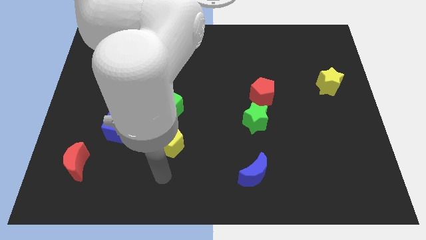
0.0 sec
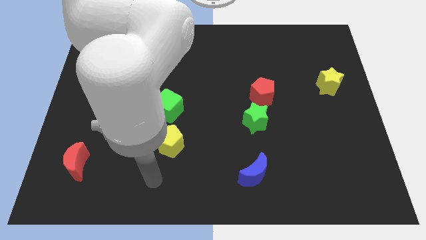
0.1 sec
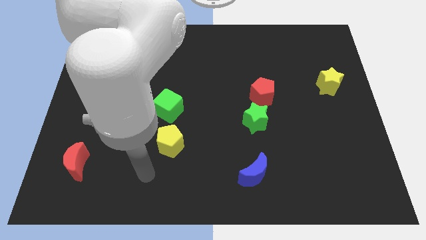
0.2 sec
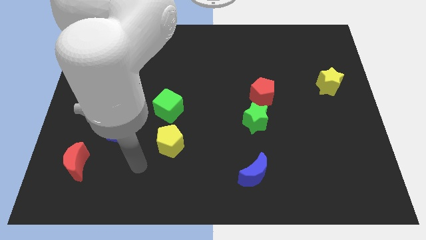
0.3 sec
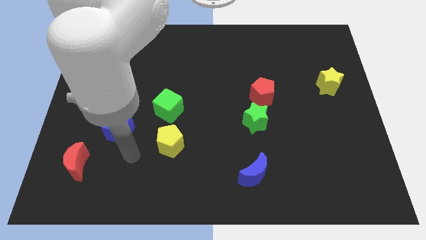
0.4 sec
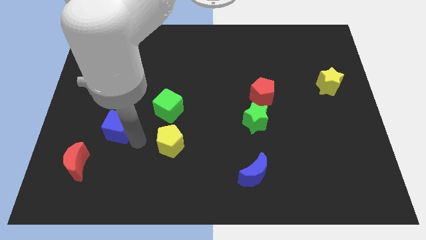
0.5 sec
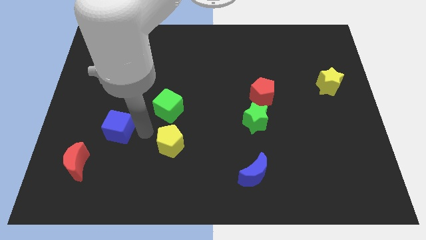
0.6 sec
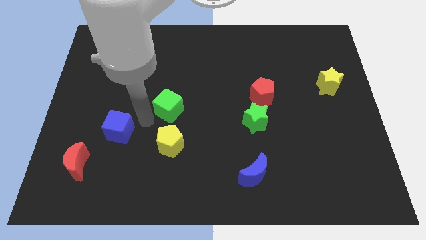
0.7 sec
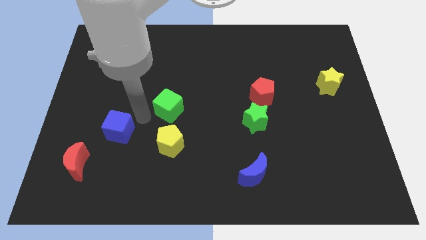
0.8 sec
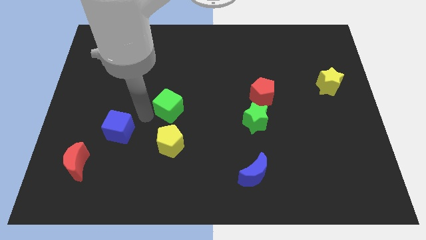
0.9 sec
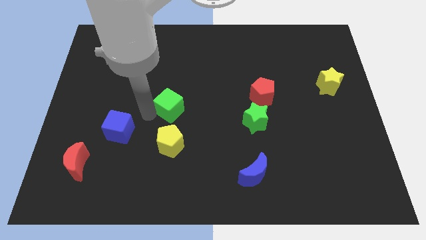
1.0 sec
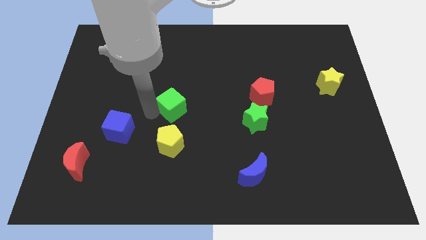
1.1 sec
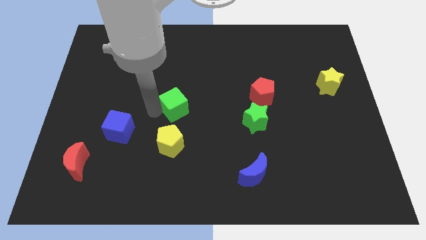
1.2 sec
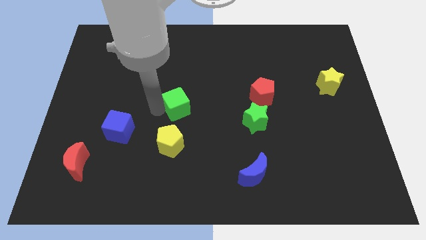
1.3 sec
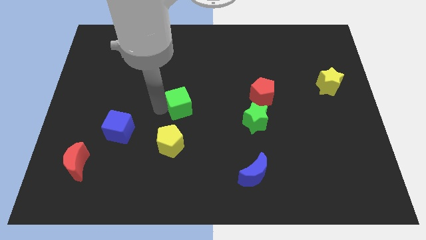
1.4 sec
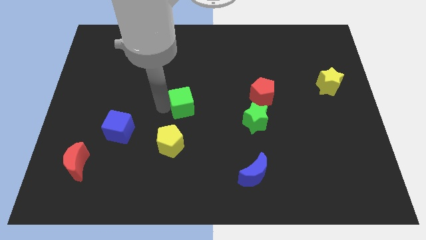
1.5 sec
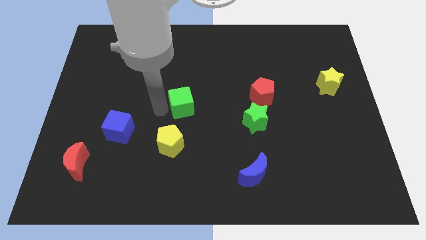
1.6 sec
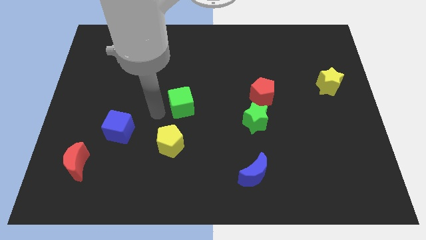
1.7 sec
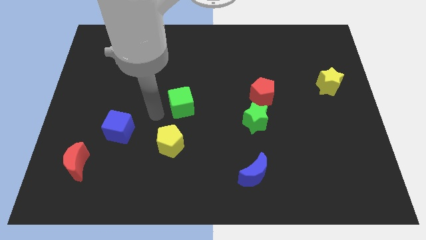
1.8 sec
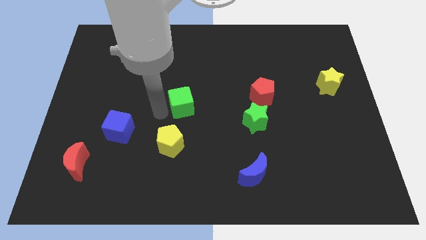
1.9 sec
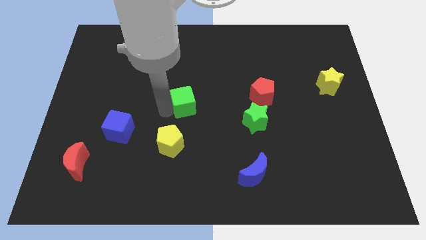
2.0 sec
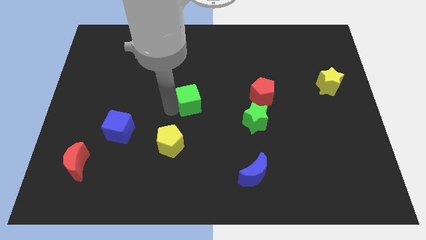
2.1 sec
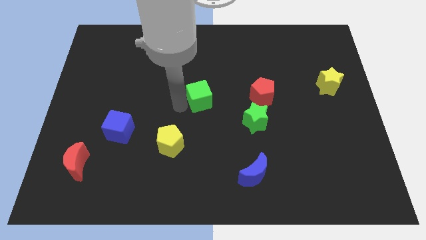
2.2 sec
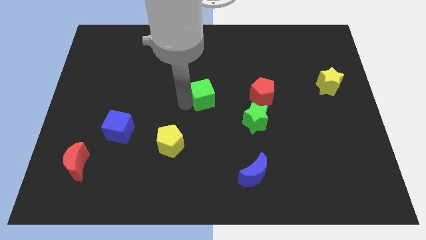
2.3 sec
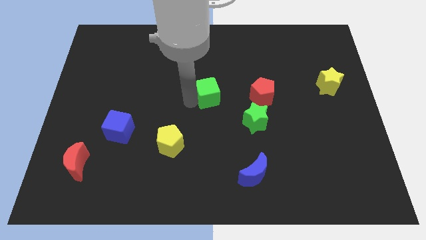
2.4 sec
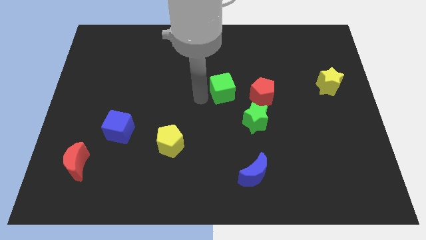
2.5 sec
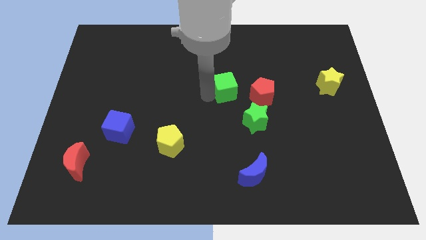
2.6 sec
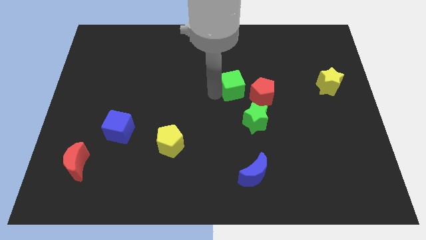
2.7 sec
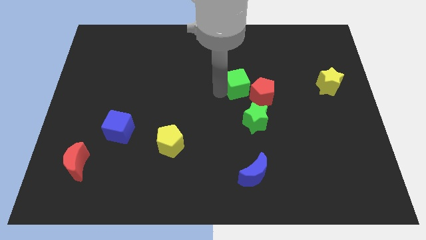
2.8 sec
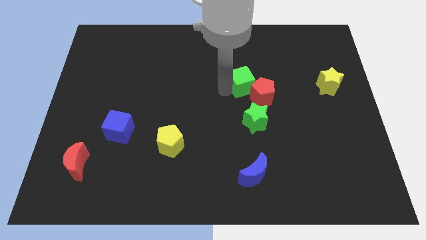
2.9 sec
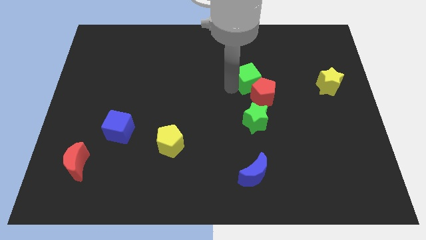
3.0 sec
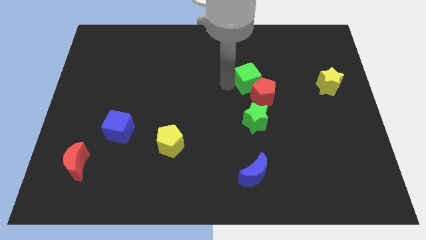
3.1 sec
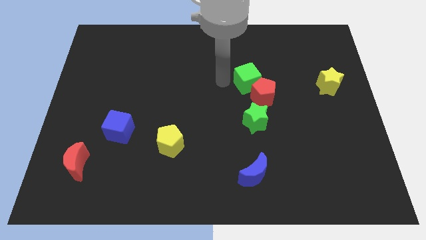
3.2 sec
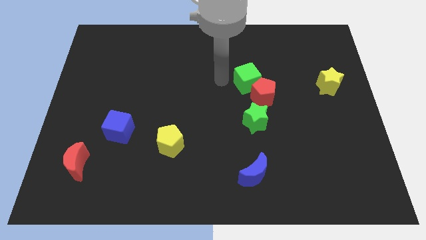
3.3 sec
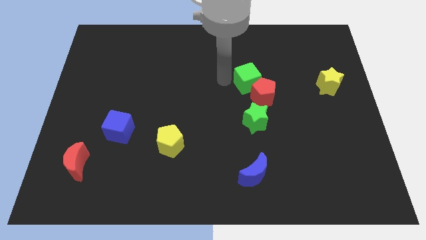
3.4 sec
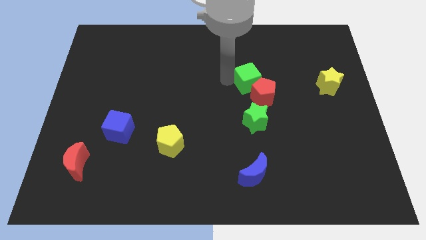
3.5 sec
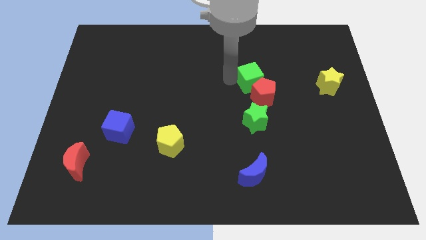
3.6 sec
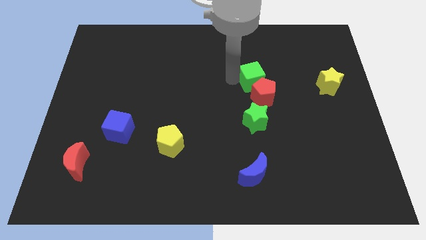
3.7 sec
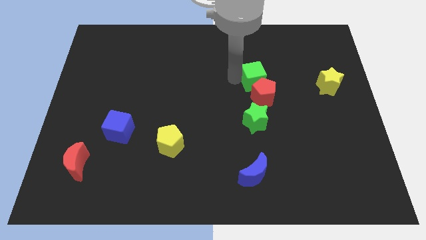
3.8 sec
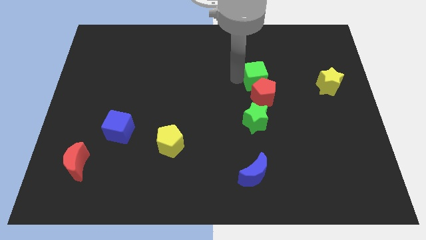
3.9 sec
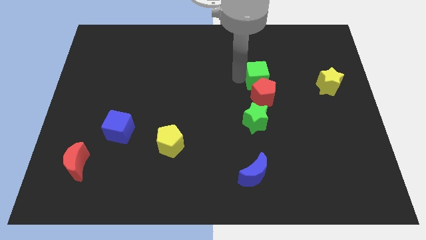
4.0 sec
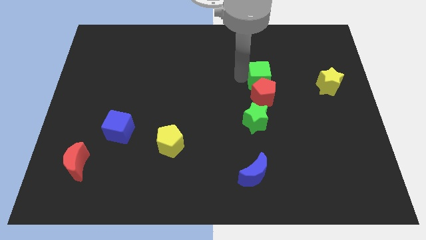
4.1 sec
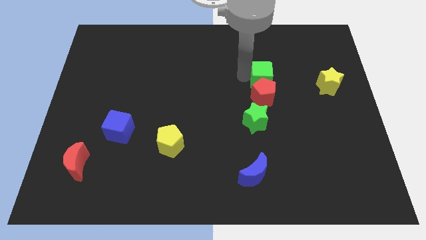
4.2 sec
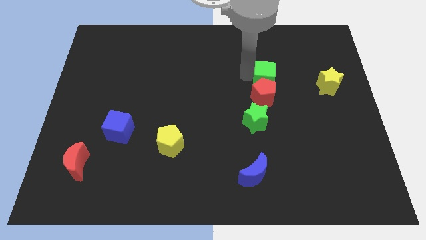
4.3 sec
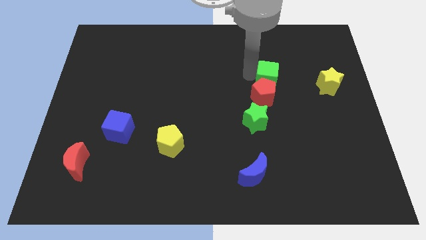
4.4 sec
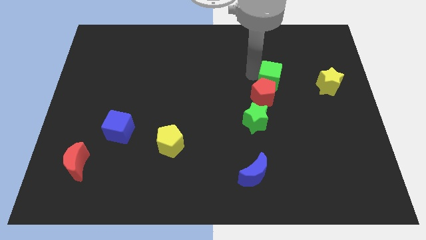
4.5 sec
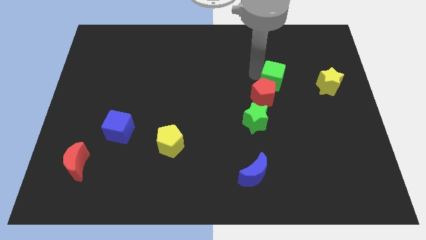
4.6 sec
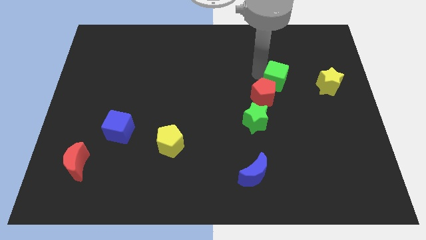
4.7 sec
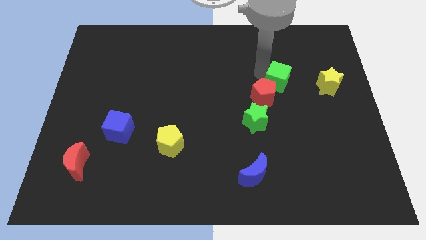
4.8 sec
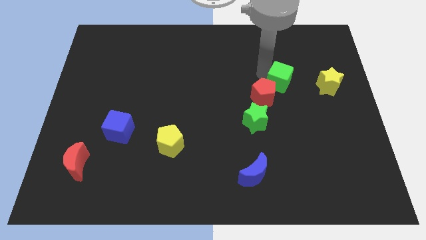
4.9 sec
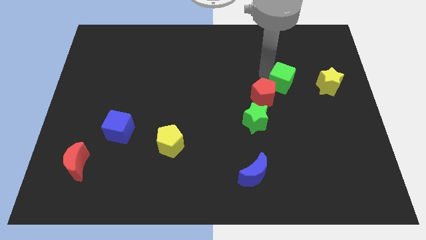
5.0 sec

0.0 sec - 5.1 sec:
move the green cube to the right side of the red pentagon

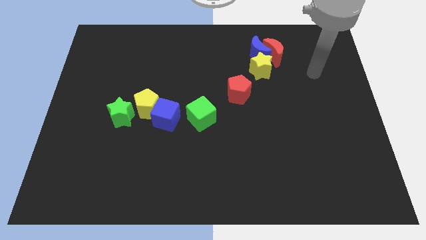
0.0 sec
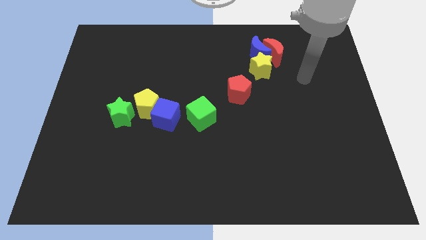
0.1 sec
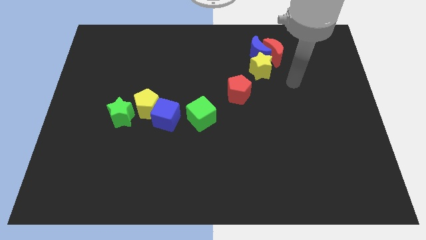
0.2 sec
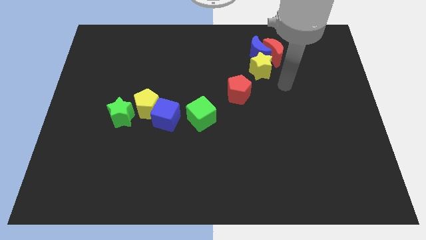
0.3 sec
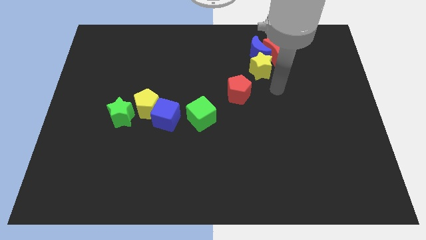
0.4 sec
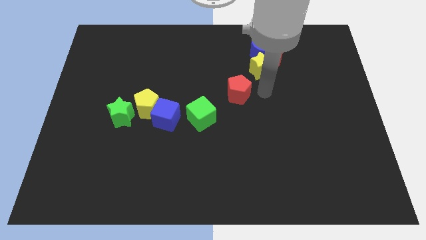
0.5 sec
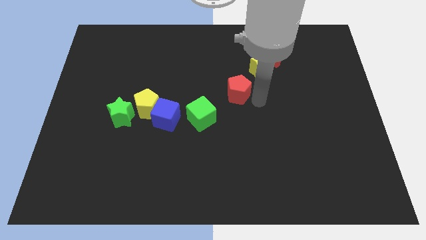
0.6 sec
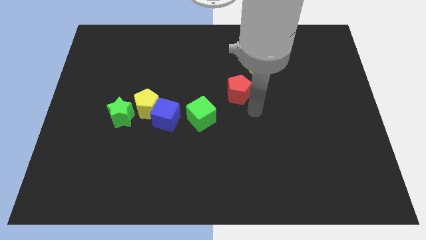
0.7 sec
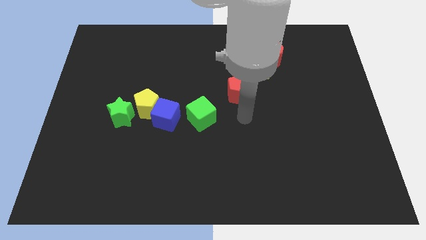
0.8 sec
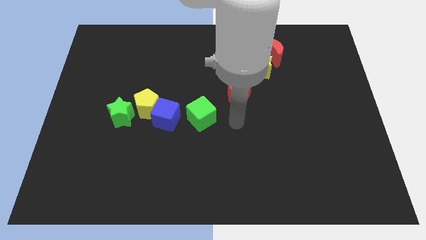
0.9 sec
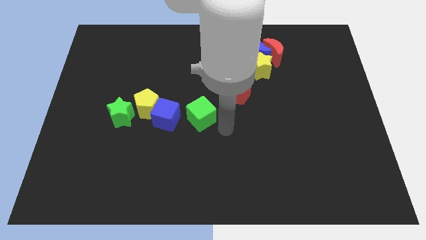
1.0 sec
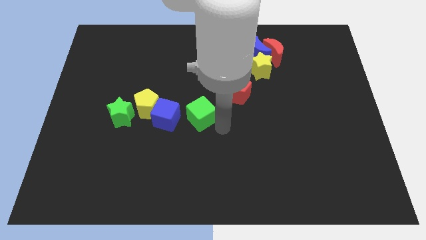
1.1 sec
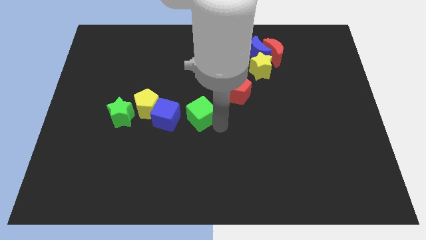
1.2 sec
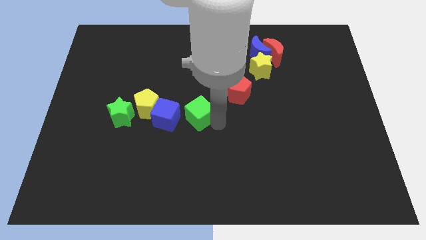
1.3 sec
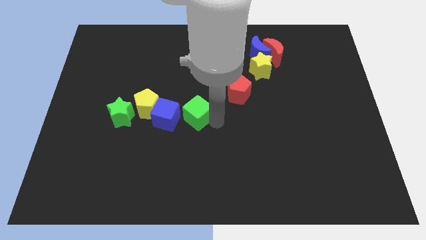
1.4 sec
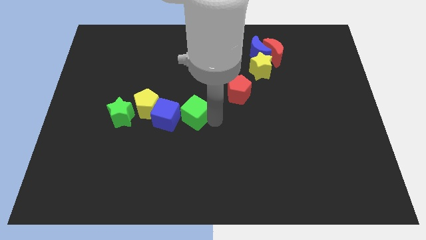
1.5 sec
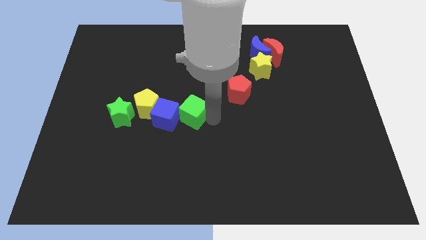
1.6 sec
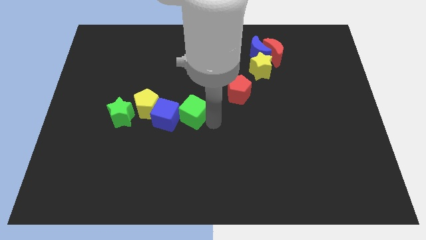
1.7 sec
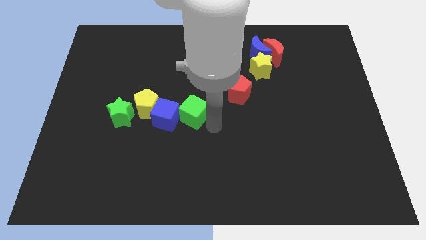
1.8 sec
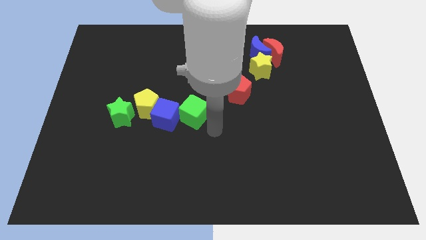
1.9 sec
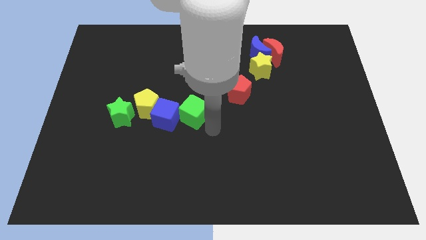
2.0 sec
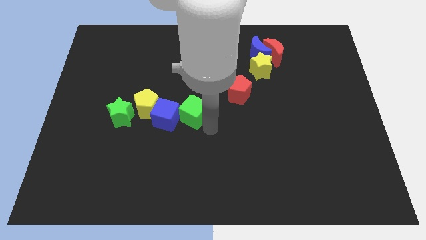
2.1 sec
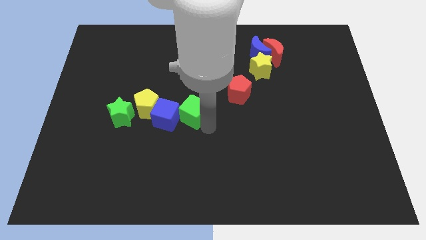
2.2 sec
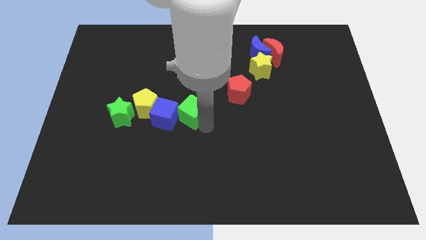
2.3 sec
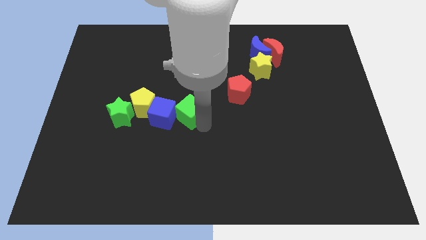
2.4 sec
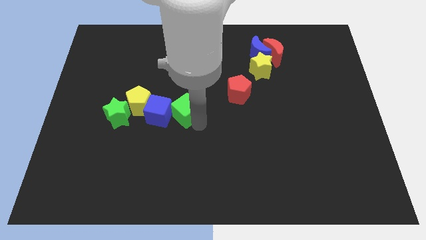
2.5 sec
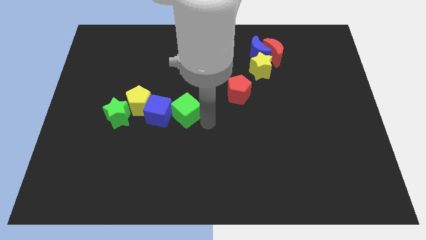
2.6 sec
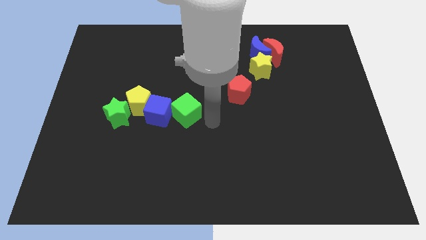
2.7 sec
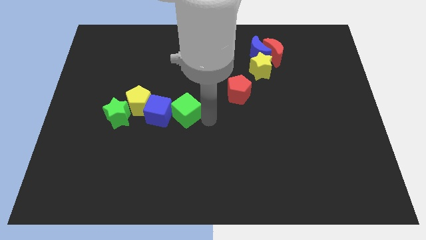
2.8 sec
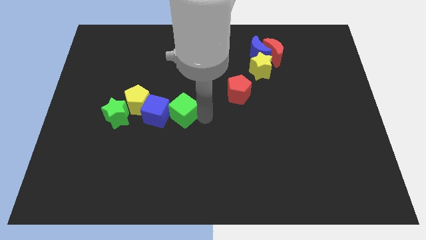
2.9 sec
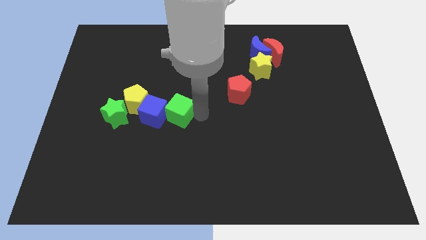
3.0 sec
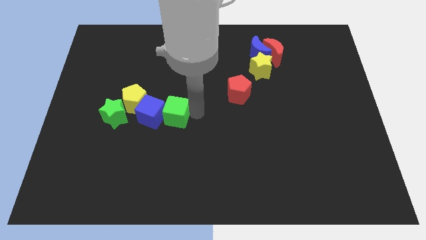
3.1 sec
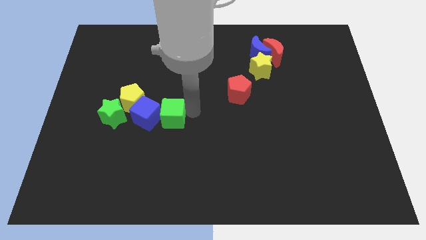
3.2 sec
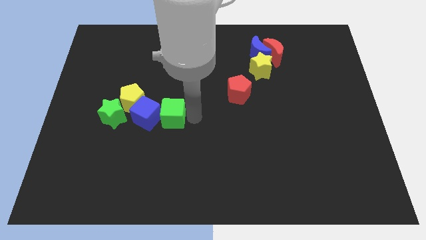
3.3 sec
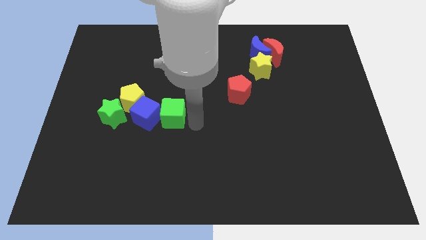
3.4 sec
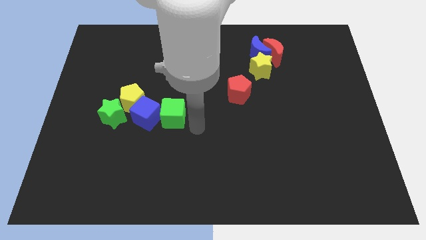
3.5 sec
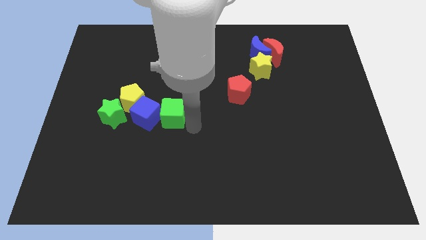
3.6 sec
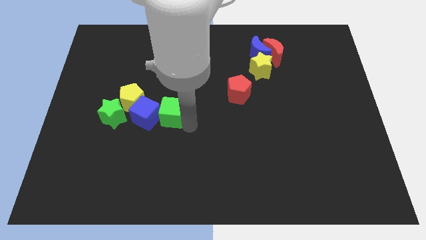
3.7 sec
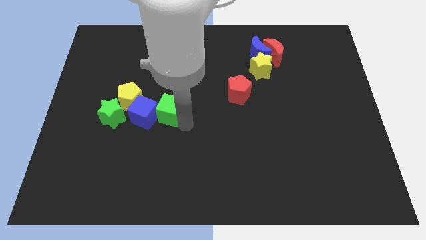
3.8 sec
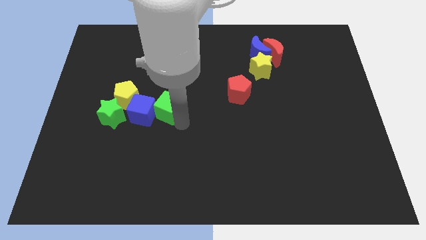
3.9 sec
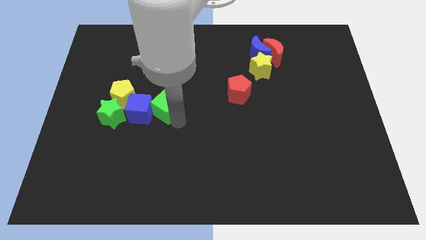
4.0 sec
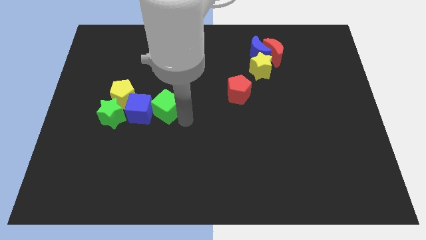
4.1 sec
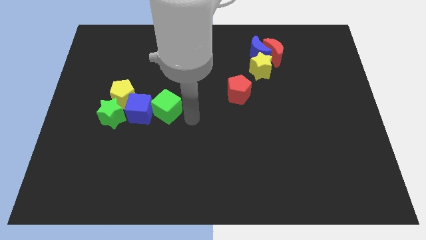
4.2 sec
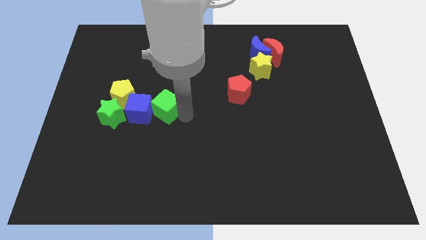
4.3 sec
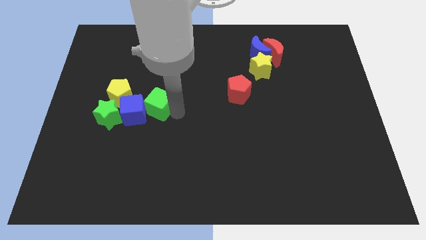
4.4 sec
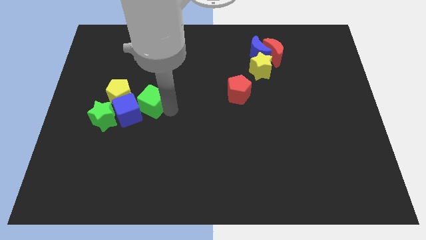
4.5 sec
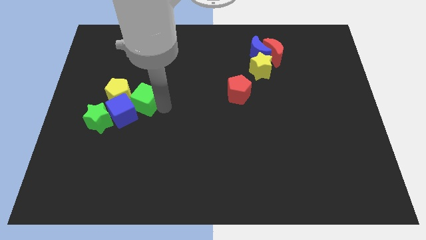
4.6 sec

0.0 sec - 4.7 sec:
move the green cube to the top right of the green star
